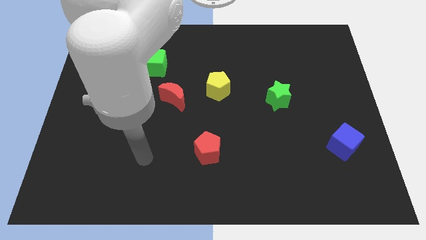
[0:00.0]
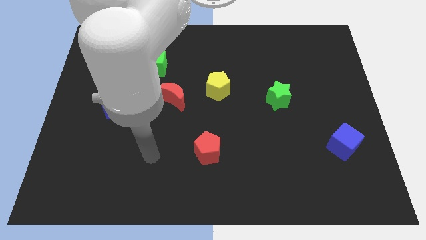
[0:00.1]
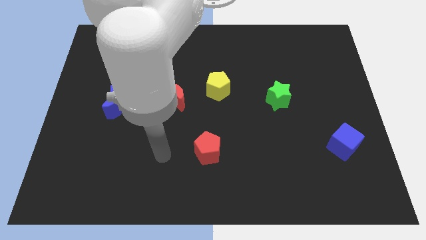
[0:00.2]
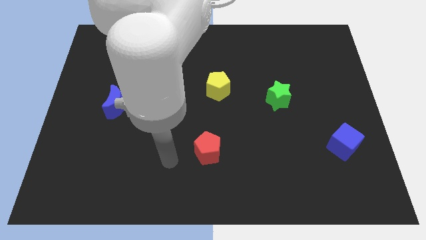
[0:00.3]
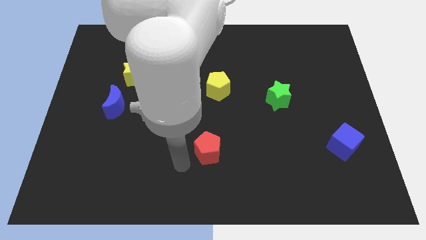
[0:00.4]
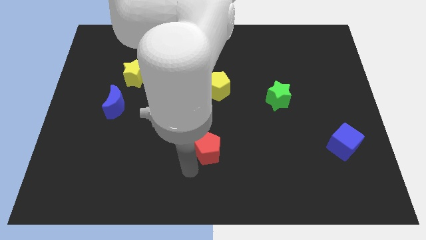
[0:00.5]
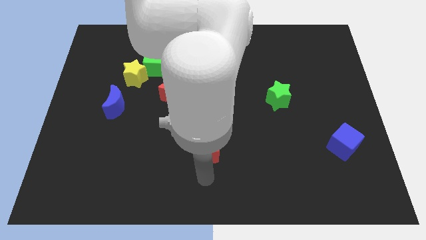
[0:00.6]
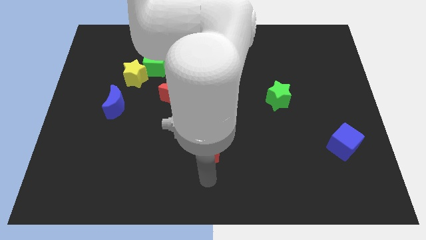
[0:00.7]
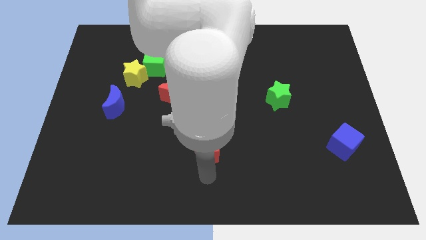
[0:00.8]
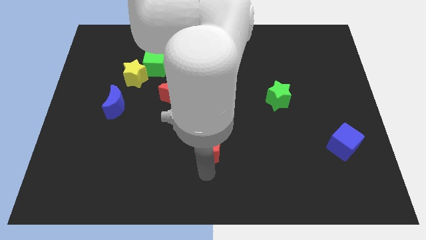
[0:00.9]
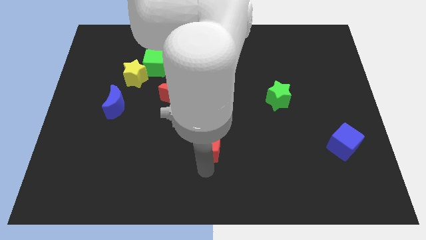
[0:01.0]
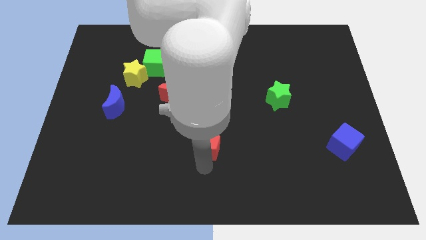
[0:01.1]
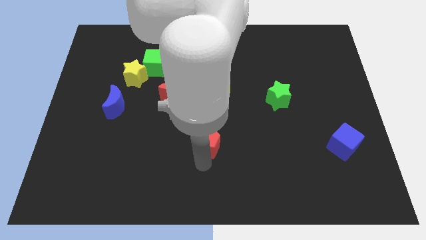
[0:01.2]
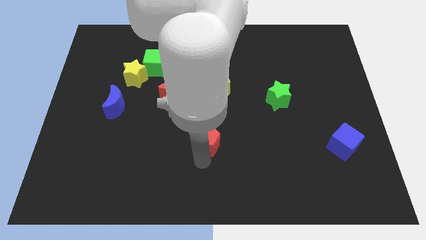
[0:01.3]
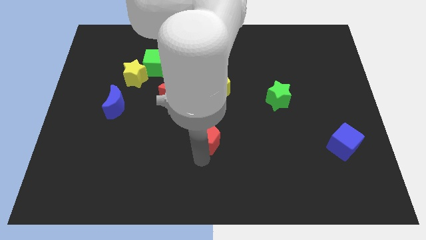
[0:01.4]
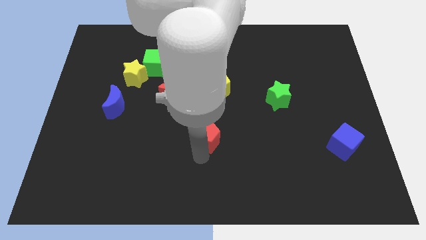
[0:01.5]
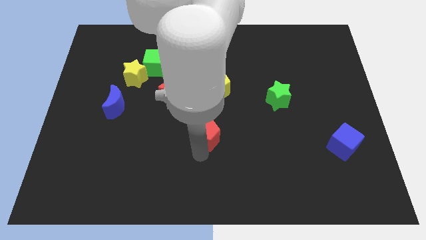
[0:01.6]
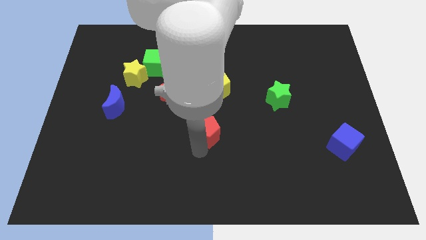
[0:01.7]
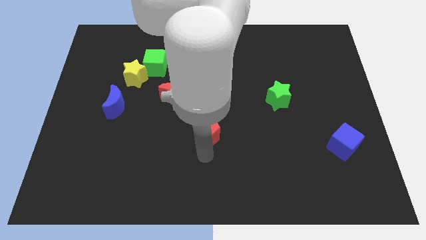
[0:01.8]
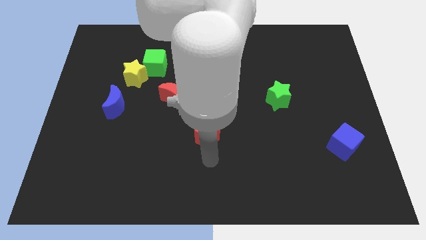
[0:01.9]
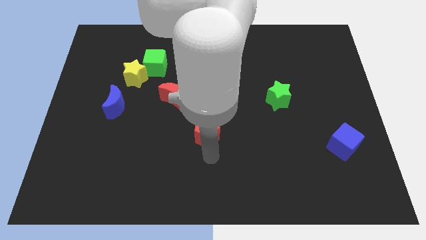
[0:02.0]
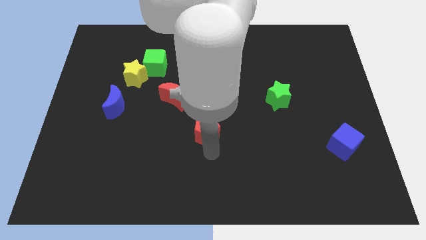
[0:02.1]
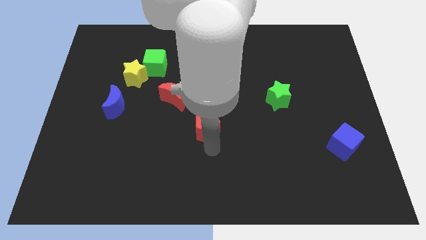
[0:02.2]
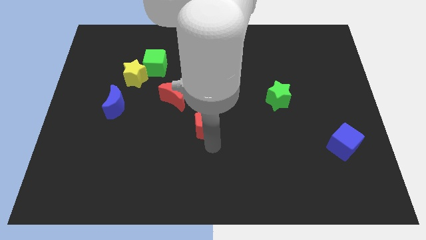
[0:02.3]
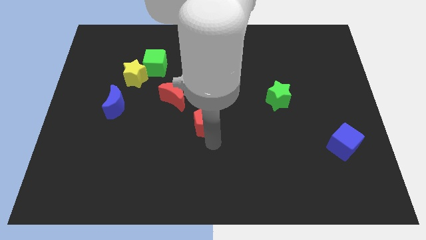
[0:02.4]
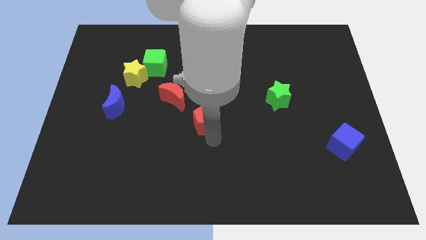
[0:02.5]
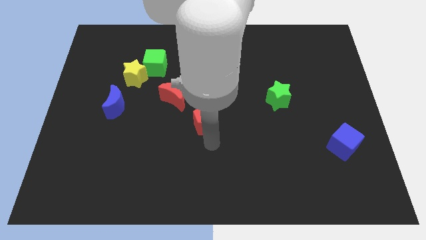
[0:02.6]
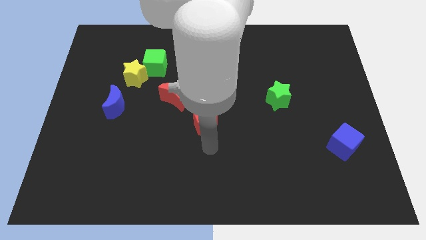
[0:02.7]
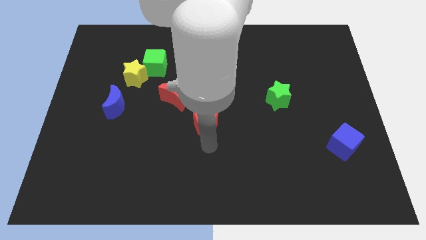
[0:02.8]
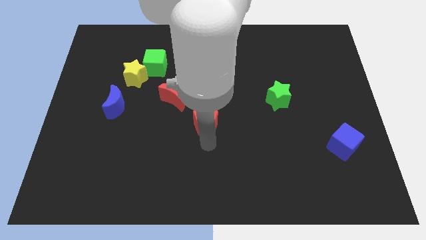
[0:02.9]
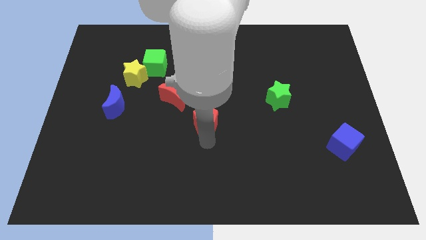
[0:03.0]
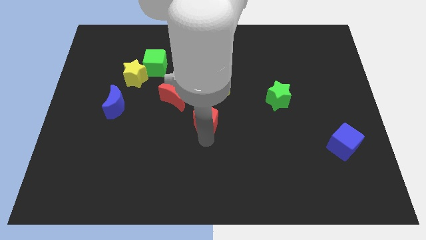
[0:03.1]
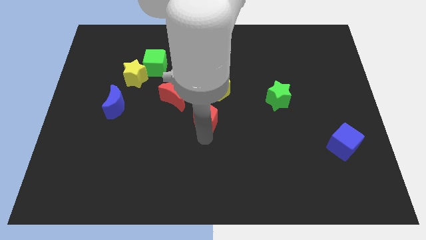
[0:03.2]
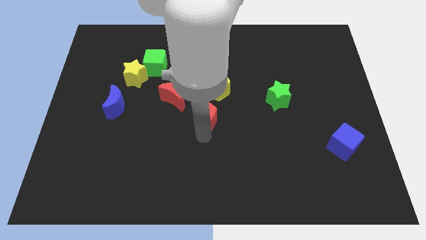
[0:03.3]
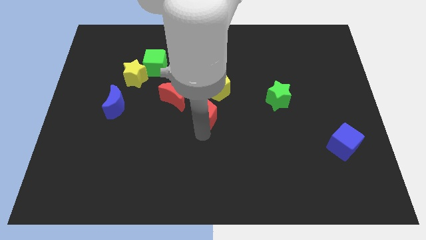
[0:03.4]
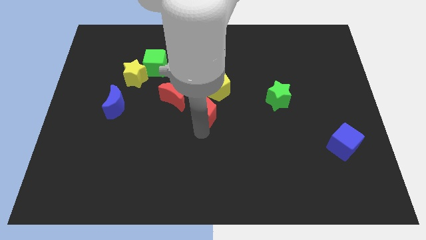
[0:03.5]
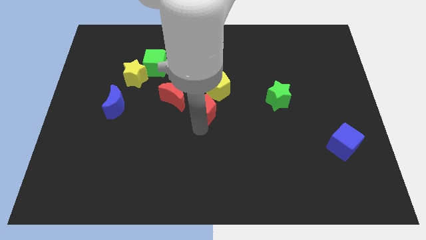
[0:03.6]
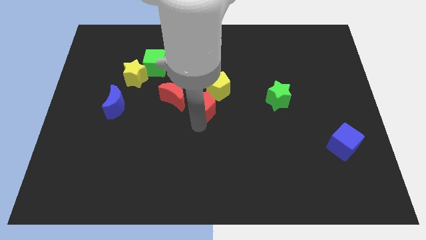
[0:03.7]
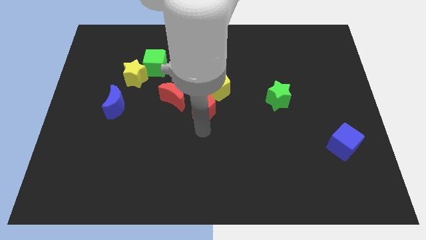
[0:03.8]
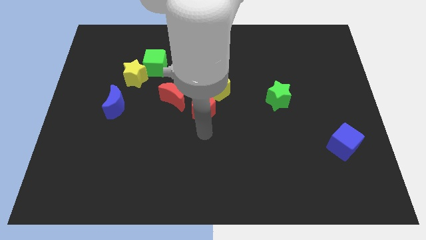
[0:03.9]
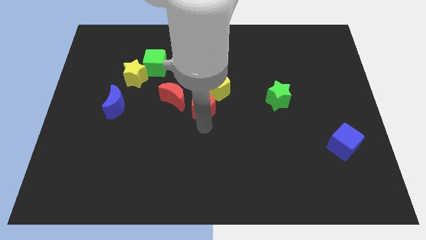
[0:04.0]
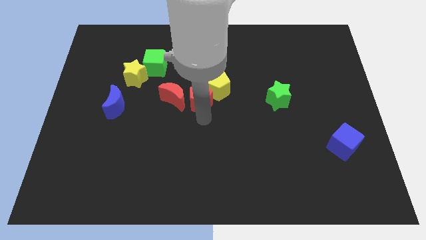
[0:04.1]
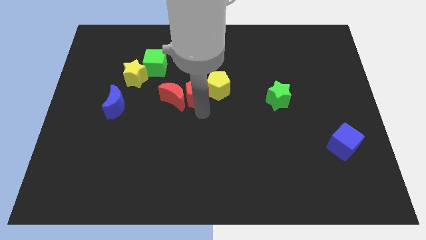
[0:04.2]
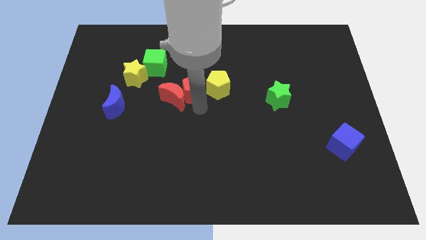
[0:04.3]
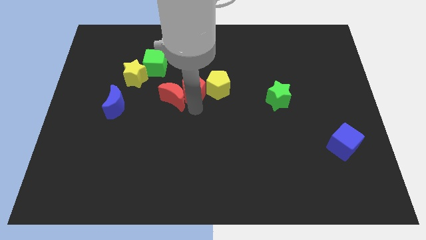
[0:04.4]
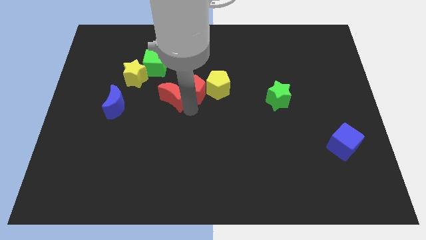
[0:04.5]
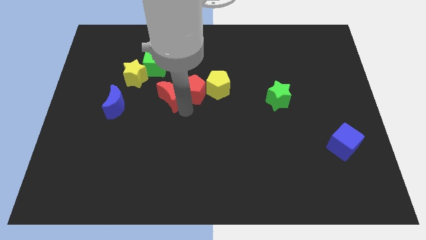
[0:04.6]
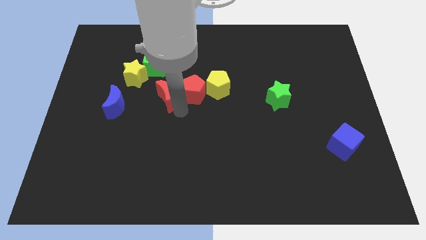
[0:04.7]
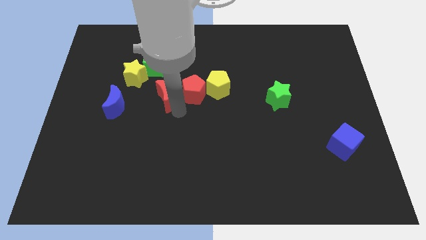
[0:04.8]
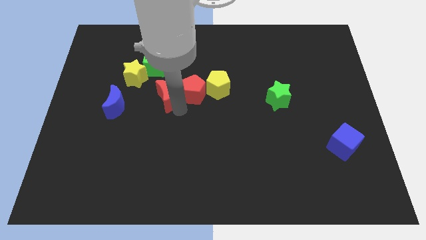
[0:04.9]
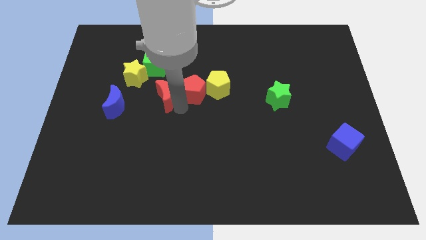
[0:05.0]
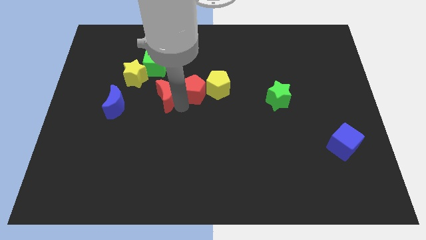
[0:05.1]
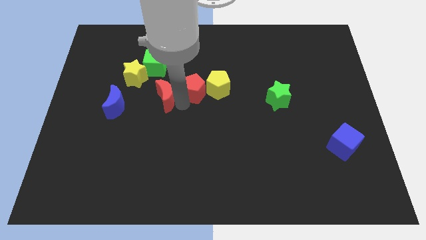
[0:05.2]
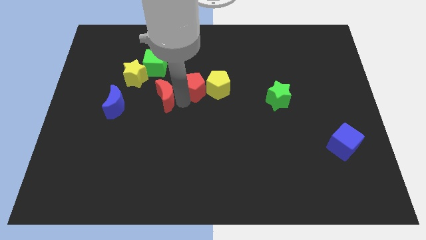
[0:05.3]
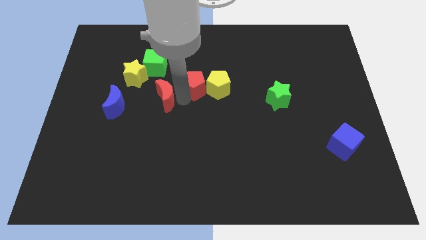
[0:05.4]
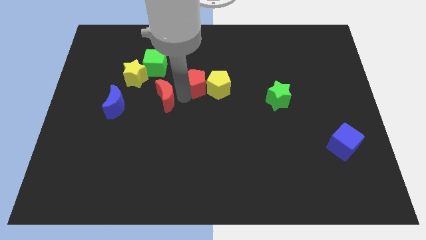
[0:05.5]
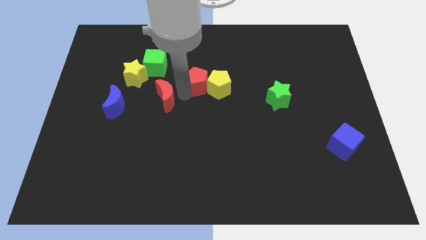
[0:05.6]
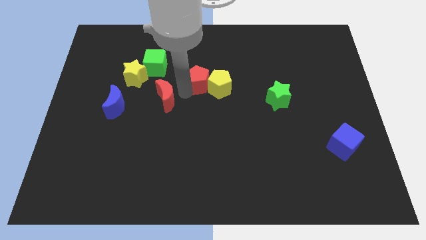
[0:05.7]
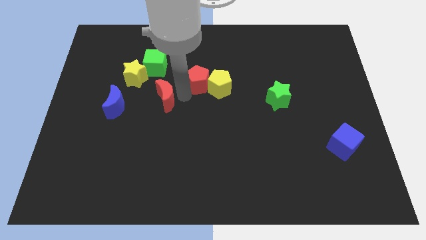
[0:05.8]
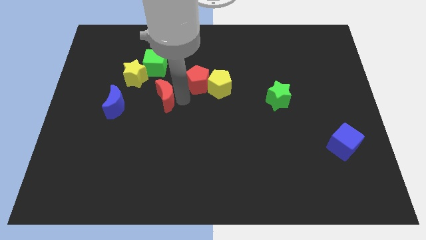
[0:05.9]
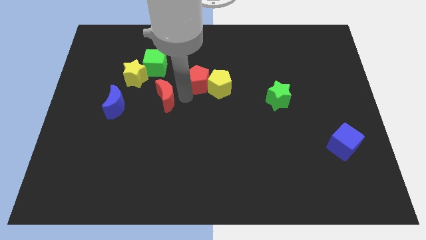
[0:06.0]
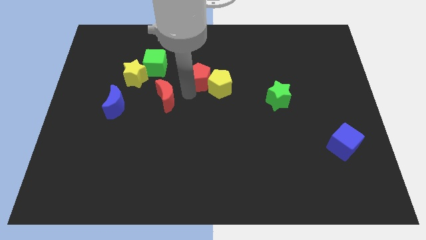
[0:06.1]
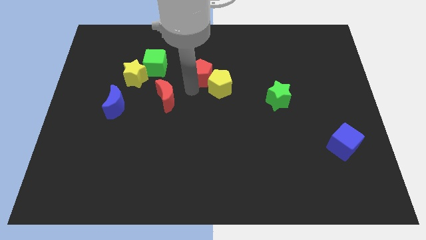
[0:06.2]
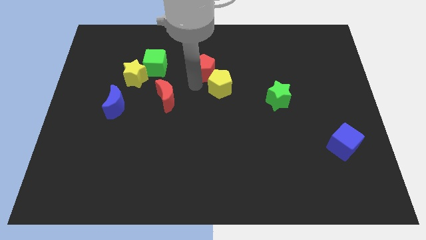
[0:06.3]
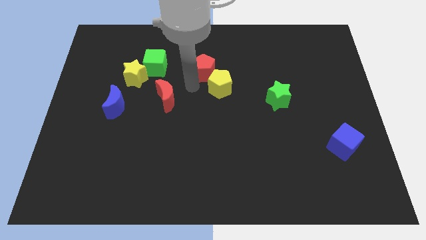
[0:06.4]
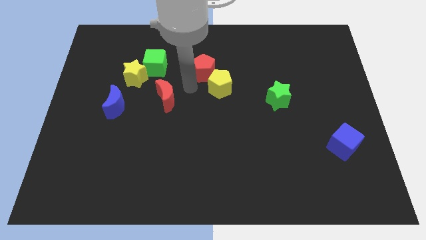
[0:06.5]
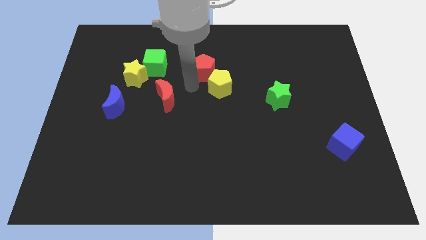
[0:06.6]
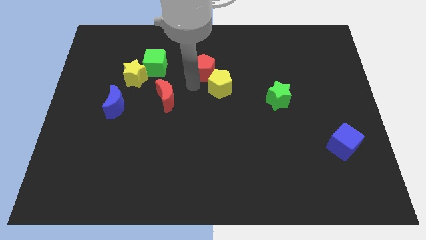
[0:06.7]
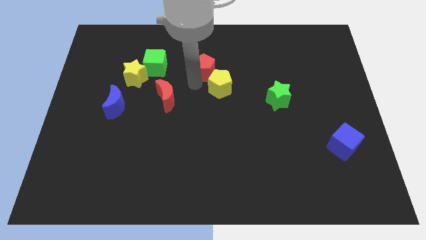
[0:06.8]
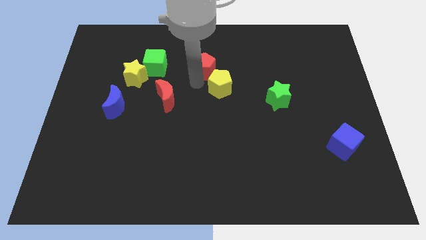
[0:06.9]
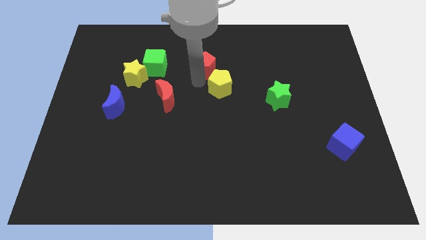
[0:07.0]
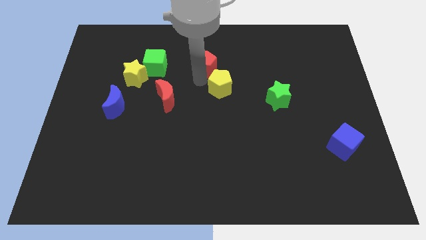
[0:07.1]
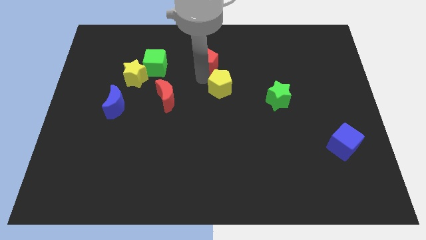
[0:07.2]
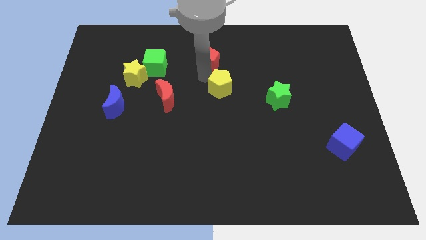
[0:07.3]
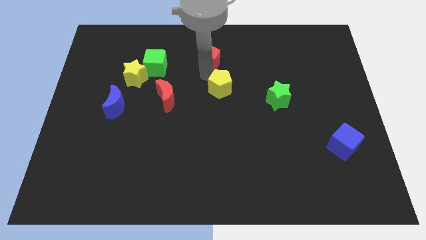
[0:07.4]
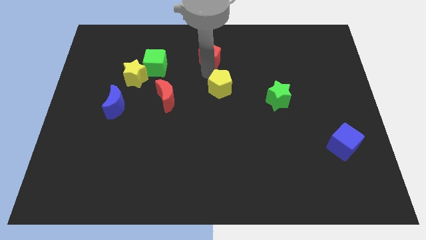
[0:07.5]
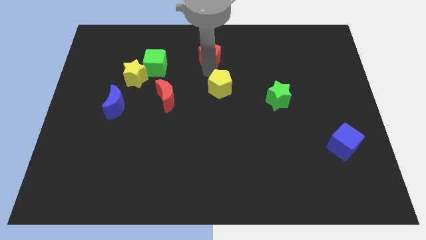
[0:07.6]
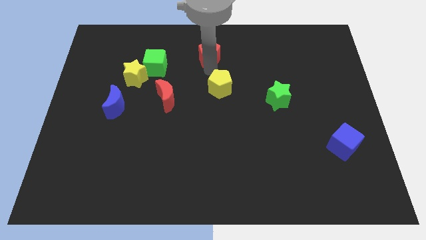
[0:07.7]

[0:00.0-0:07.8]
move the red pentagon to the towards your base
